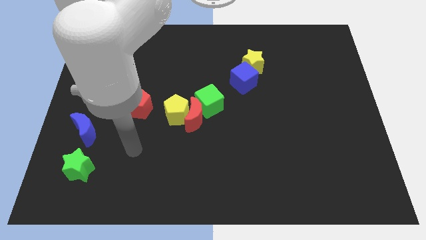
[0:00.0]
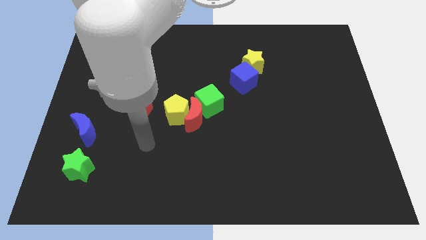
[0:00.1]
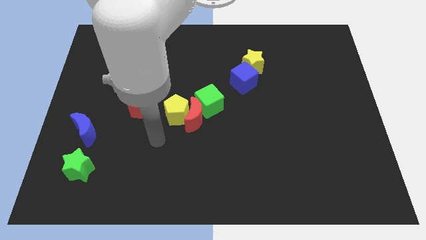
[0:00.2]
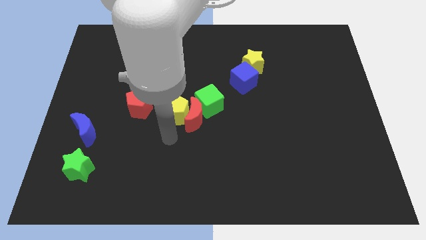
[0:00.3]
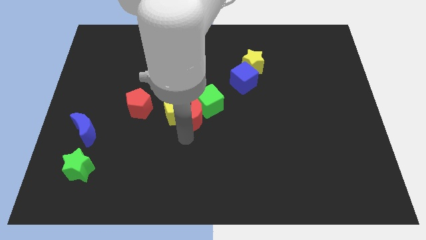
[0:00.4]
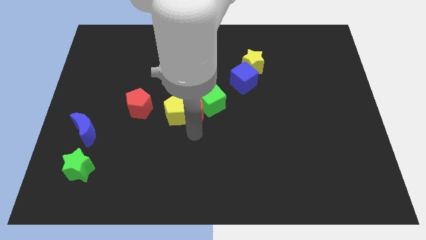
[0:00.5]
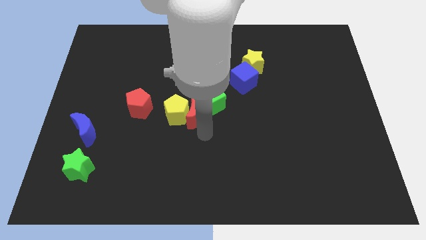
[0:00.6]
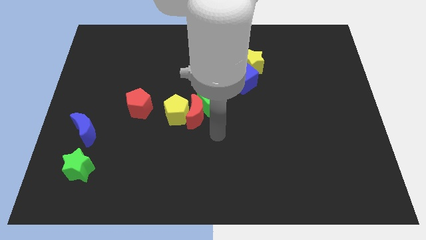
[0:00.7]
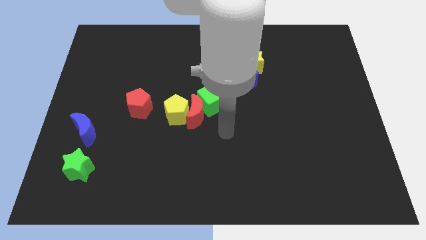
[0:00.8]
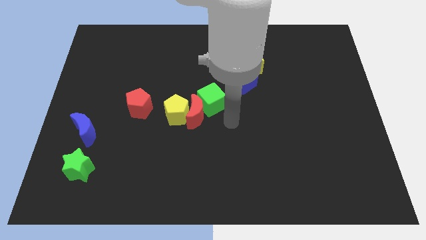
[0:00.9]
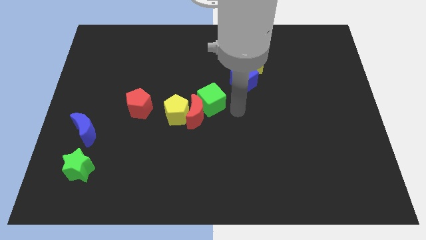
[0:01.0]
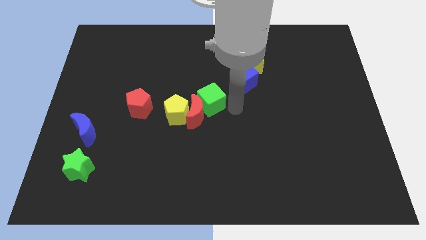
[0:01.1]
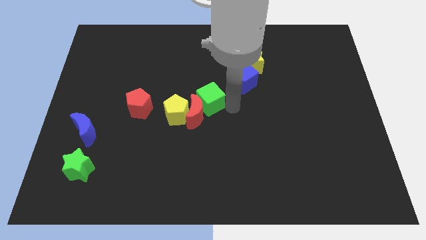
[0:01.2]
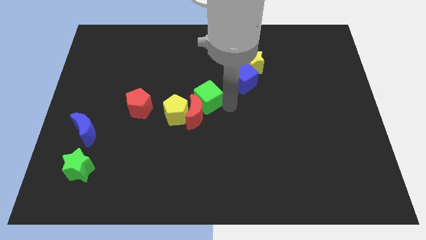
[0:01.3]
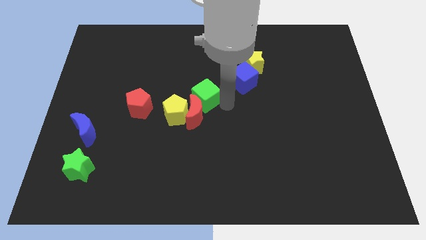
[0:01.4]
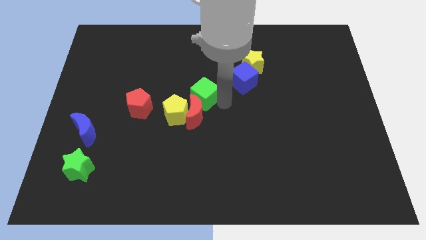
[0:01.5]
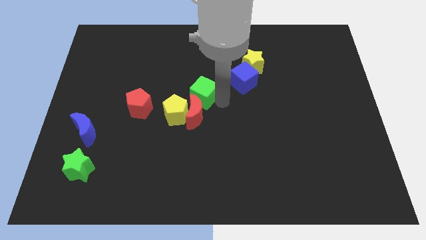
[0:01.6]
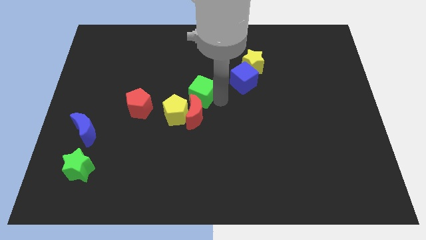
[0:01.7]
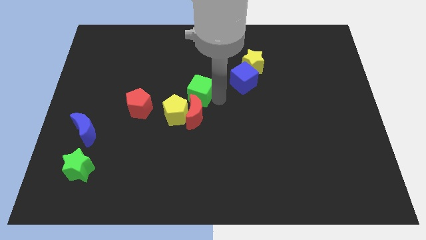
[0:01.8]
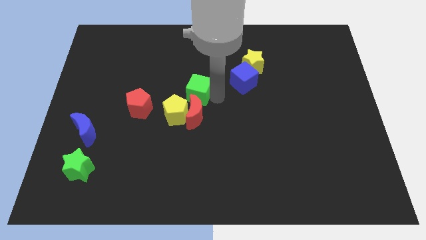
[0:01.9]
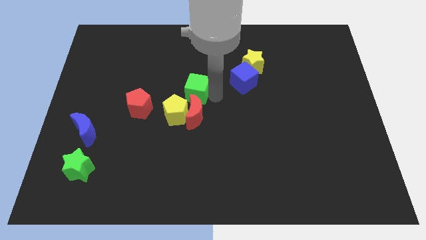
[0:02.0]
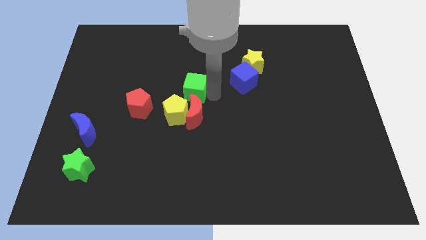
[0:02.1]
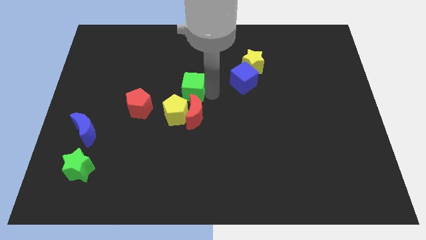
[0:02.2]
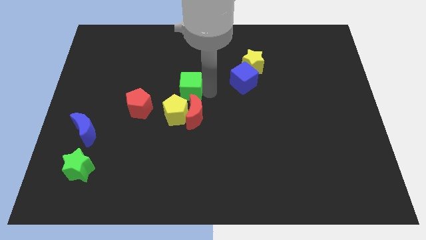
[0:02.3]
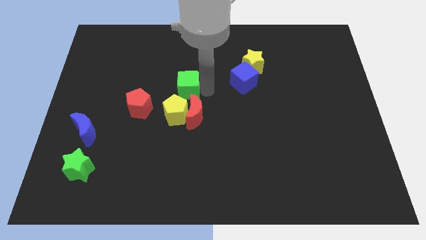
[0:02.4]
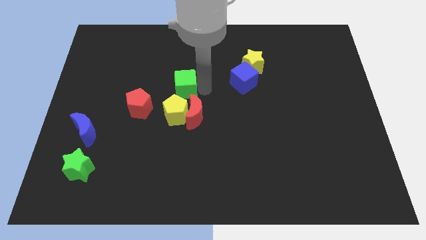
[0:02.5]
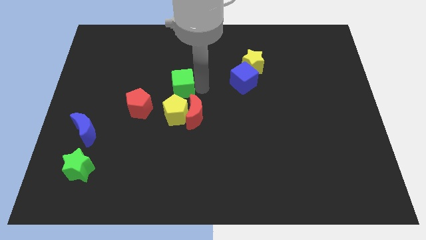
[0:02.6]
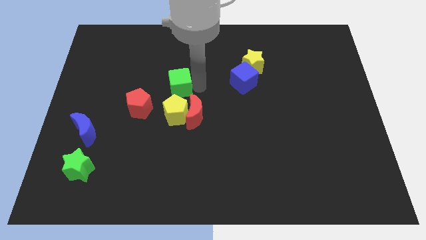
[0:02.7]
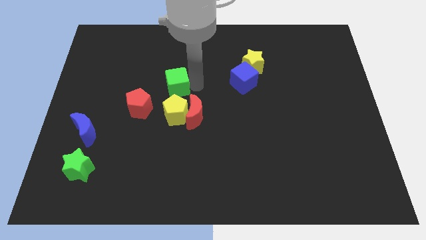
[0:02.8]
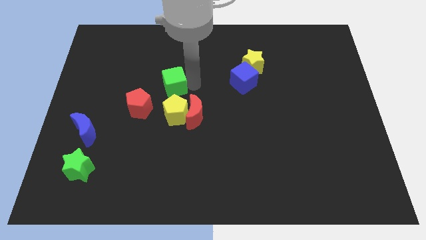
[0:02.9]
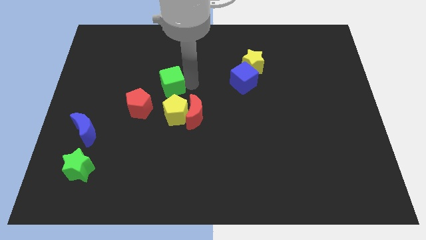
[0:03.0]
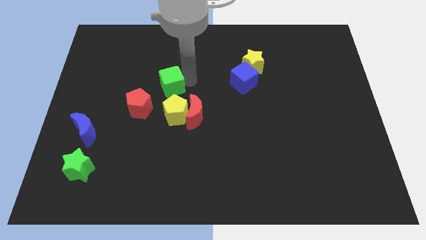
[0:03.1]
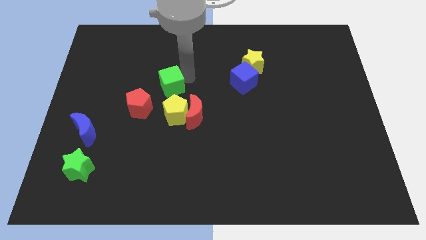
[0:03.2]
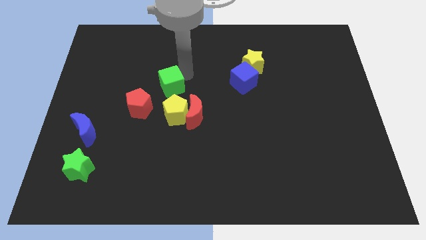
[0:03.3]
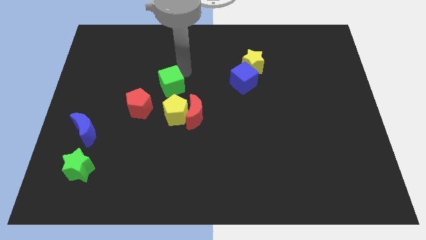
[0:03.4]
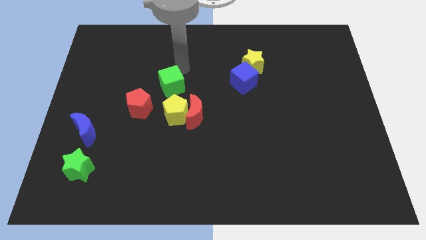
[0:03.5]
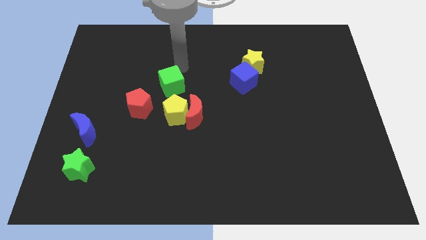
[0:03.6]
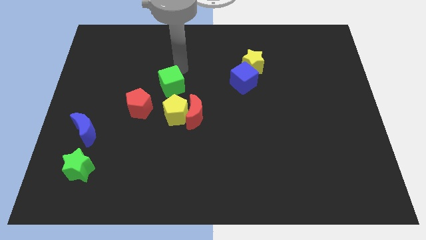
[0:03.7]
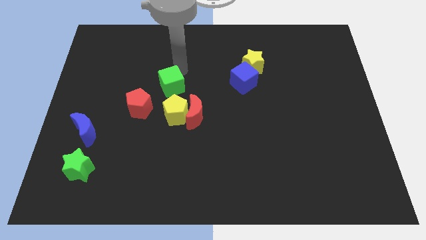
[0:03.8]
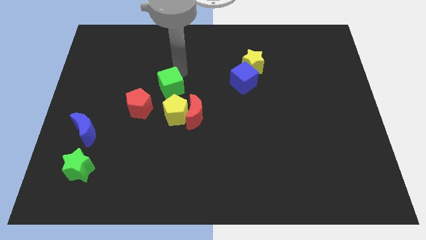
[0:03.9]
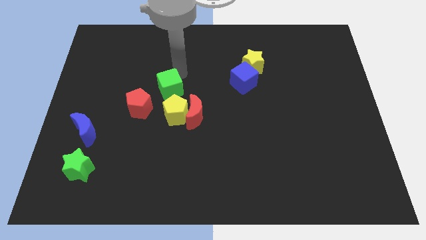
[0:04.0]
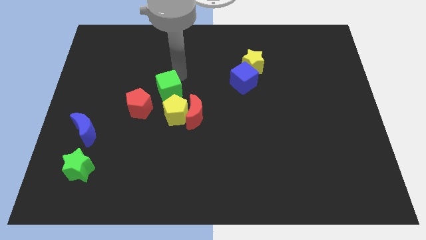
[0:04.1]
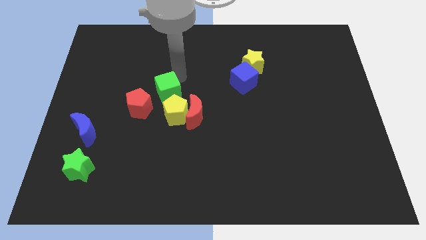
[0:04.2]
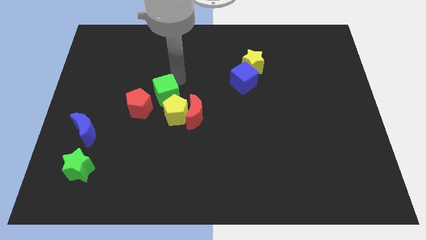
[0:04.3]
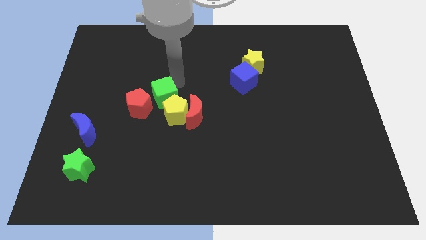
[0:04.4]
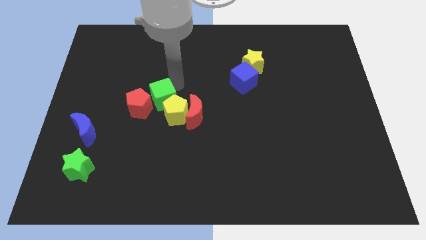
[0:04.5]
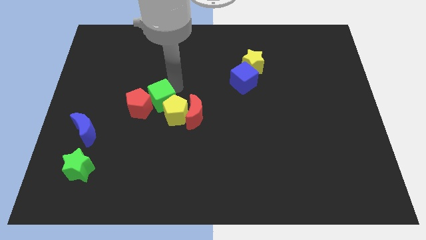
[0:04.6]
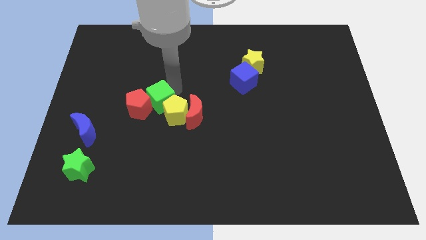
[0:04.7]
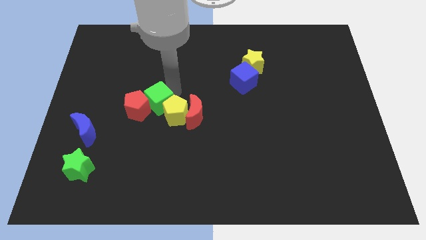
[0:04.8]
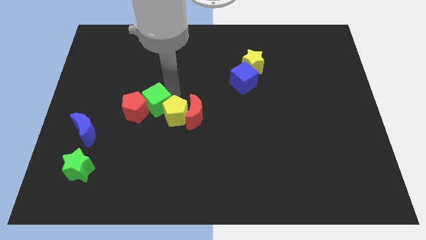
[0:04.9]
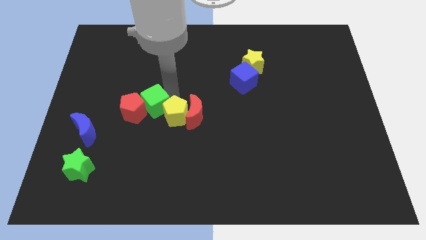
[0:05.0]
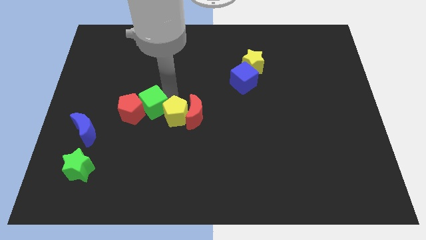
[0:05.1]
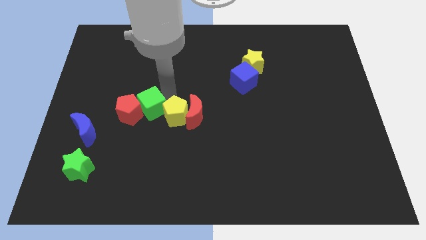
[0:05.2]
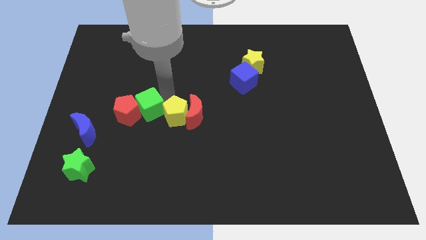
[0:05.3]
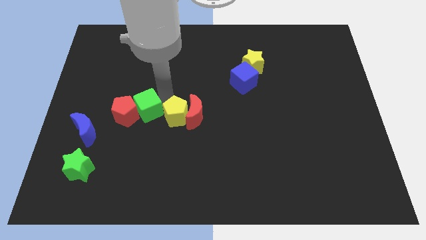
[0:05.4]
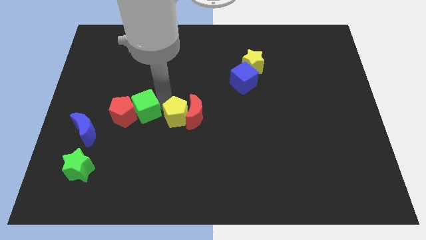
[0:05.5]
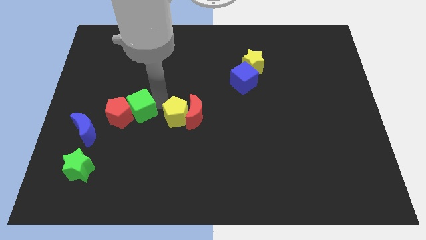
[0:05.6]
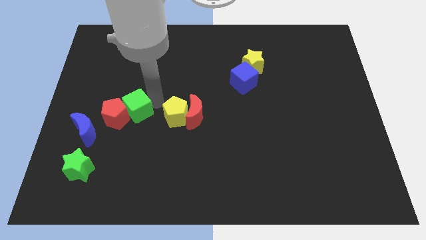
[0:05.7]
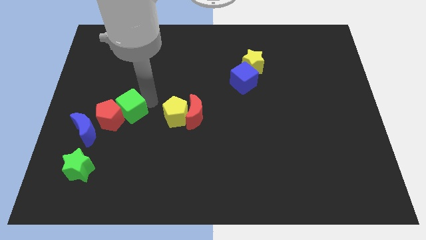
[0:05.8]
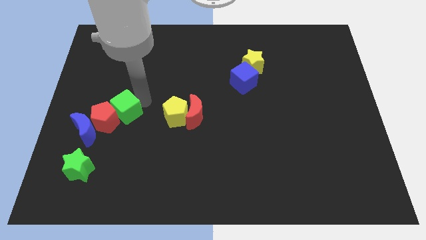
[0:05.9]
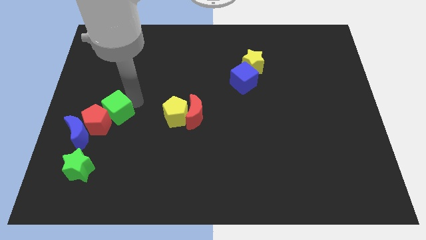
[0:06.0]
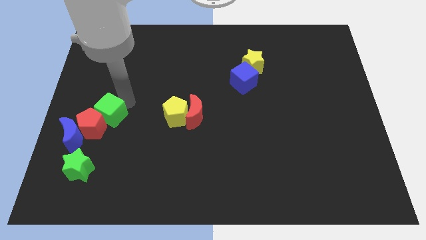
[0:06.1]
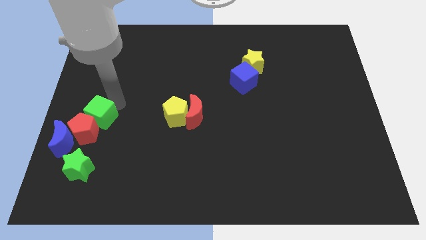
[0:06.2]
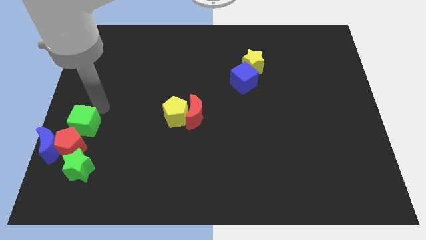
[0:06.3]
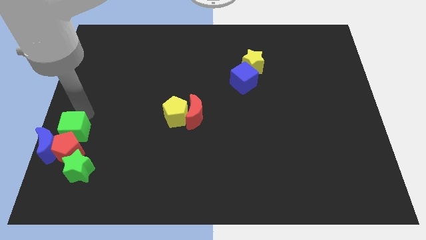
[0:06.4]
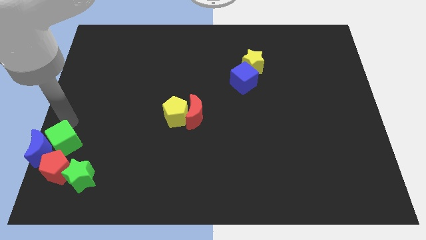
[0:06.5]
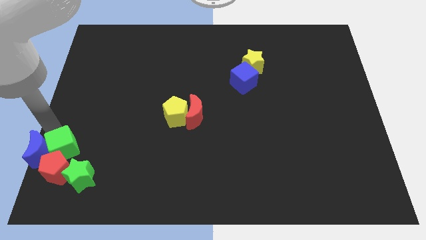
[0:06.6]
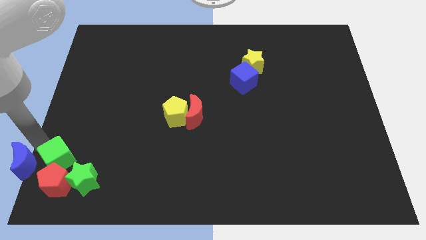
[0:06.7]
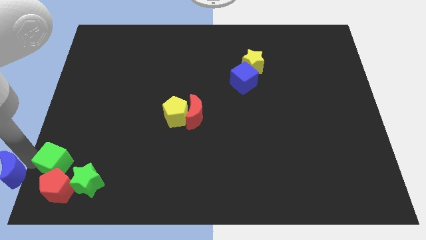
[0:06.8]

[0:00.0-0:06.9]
slide the green cube to the bottom left
